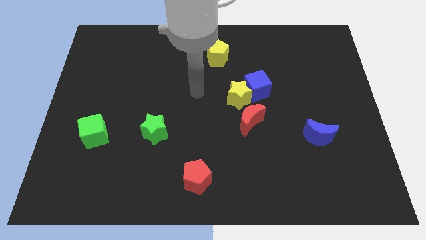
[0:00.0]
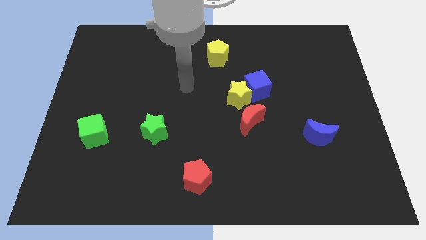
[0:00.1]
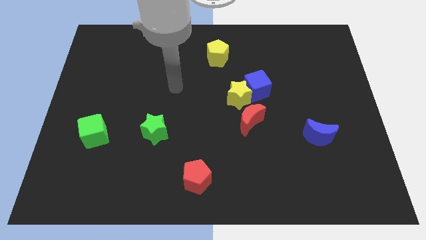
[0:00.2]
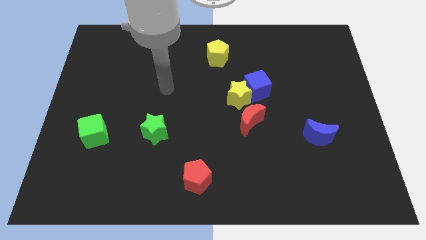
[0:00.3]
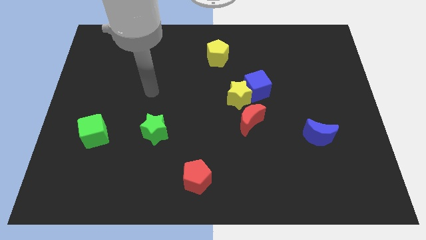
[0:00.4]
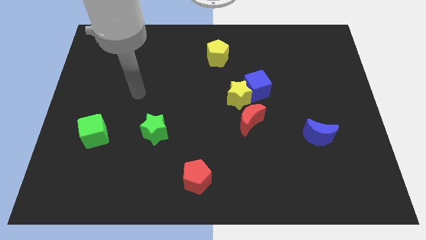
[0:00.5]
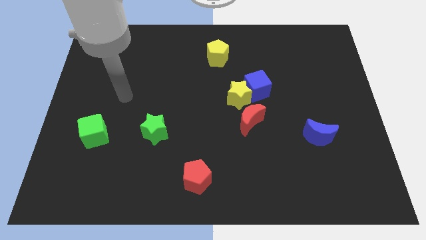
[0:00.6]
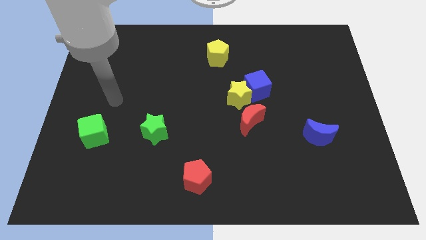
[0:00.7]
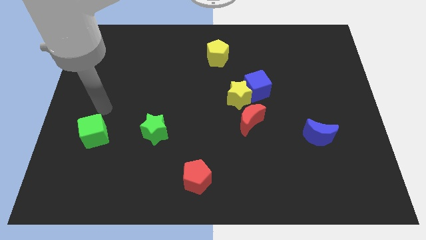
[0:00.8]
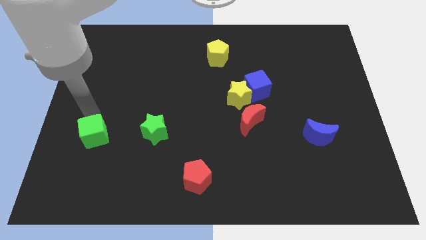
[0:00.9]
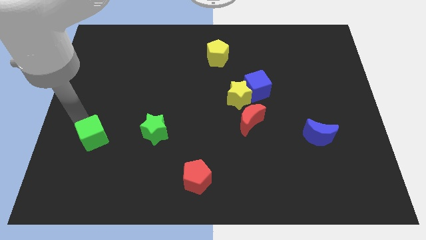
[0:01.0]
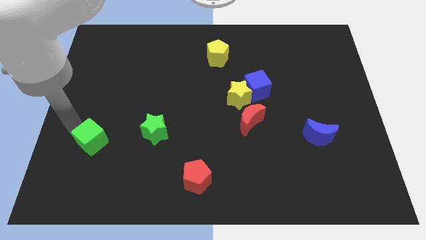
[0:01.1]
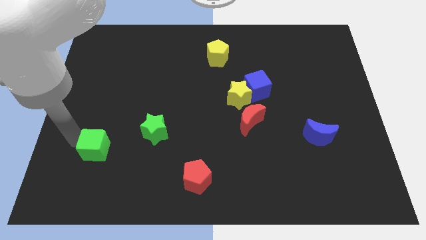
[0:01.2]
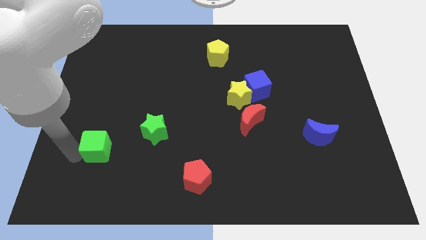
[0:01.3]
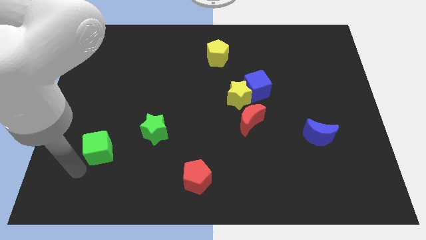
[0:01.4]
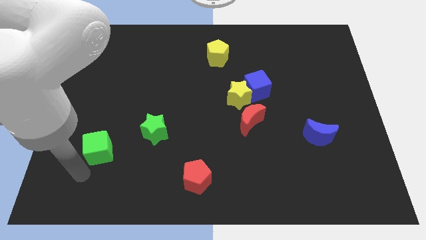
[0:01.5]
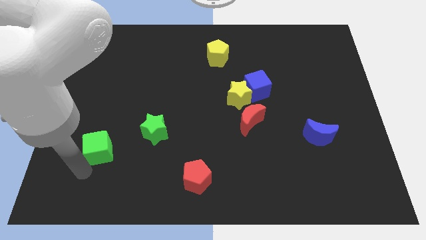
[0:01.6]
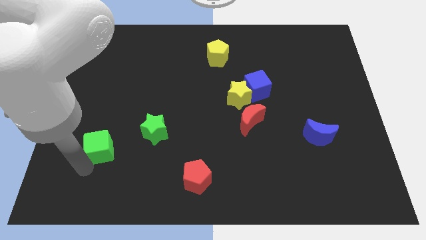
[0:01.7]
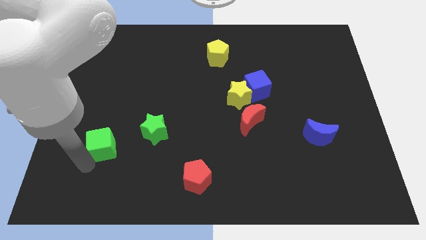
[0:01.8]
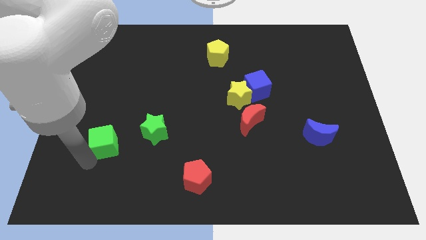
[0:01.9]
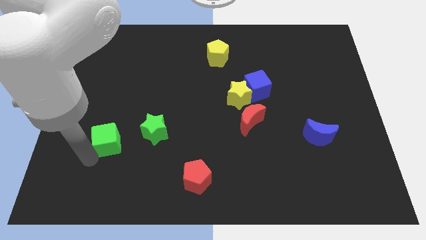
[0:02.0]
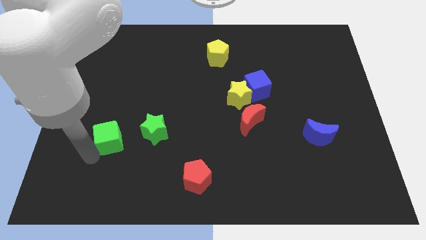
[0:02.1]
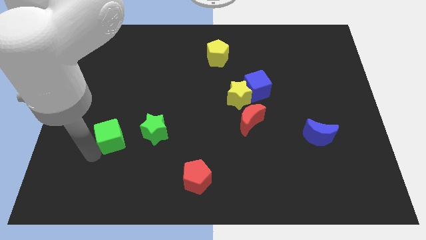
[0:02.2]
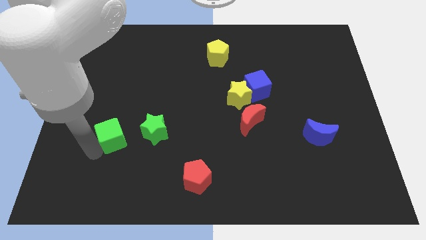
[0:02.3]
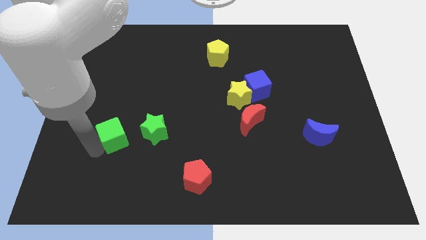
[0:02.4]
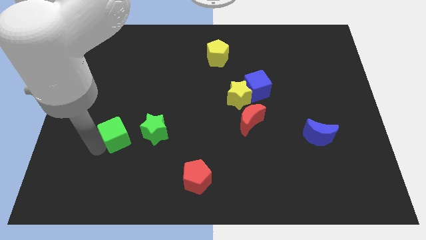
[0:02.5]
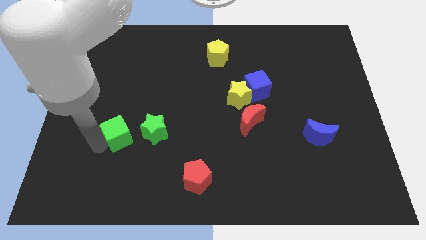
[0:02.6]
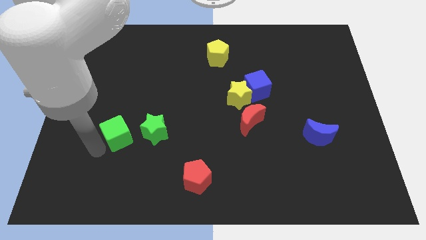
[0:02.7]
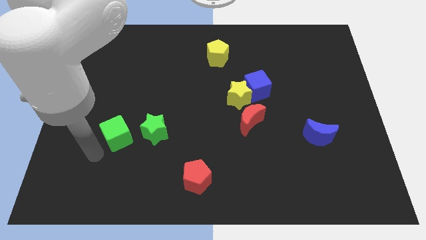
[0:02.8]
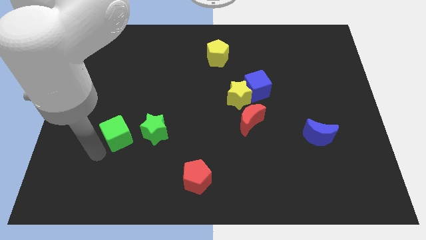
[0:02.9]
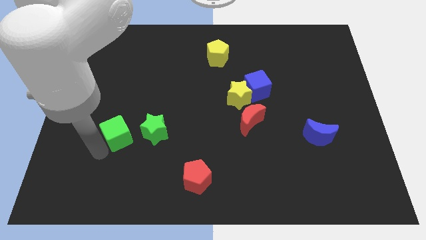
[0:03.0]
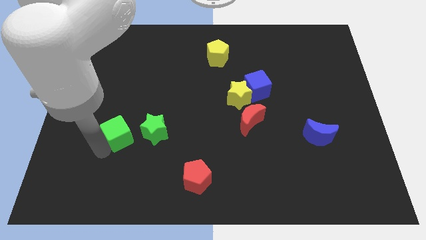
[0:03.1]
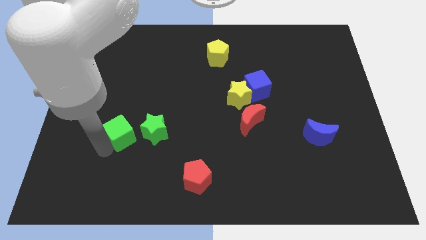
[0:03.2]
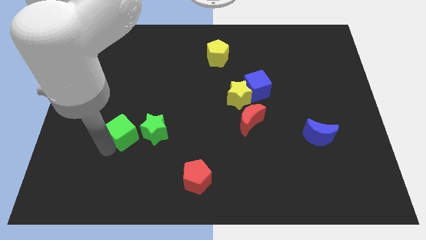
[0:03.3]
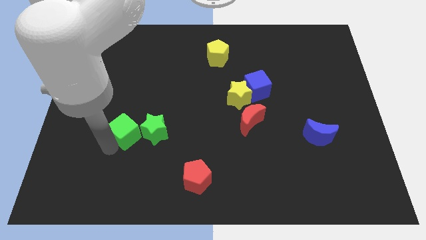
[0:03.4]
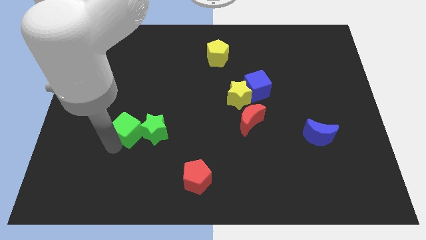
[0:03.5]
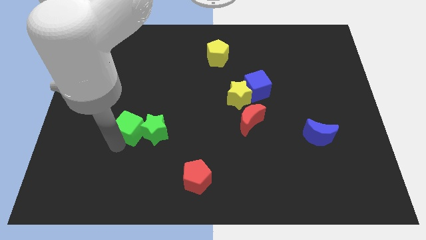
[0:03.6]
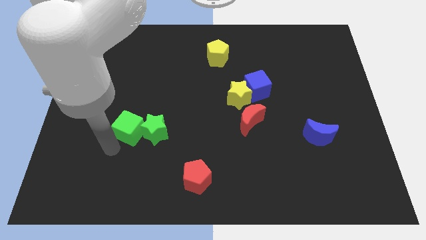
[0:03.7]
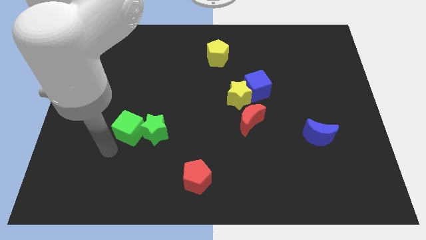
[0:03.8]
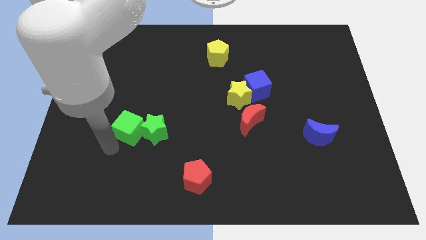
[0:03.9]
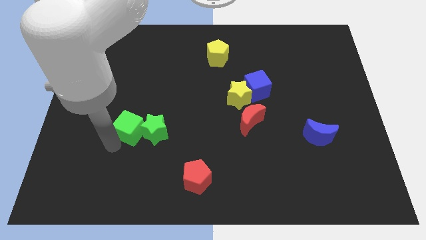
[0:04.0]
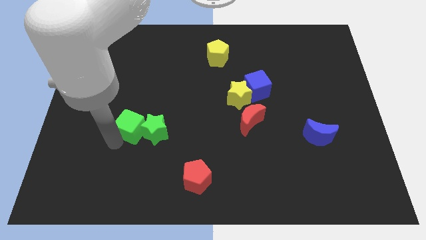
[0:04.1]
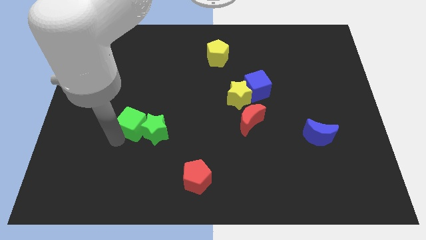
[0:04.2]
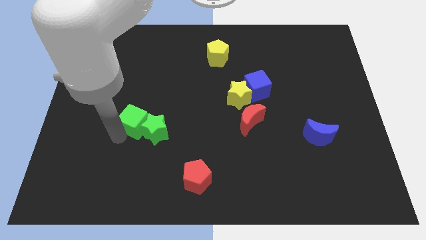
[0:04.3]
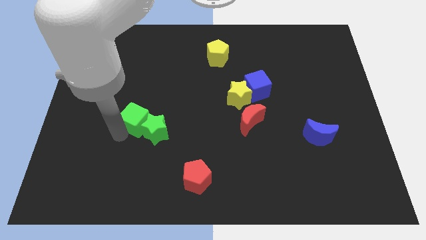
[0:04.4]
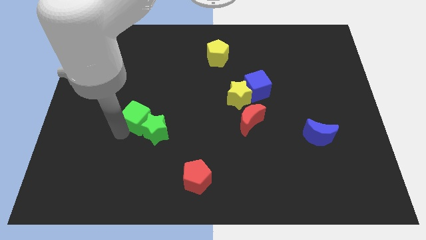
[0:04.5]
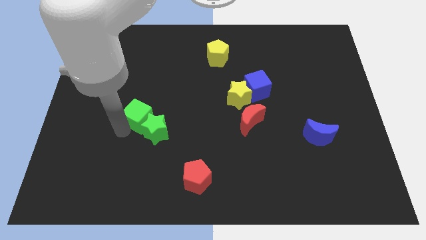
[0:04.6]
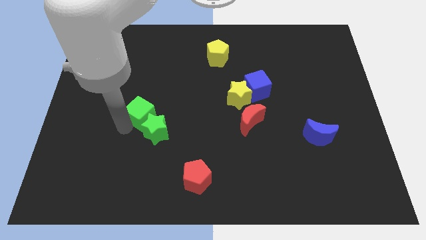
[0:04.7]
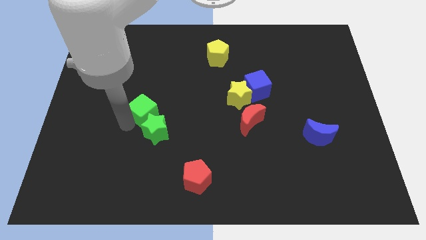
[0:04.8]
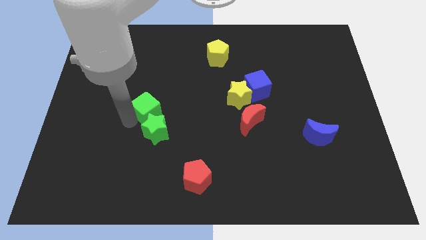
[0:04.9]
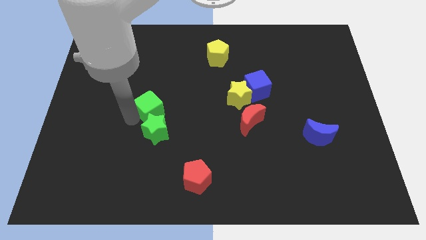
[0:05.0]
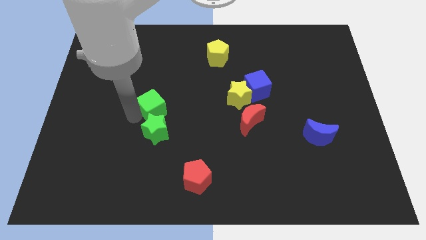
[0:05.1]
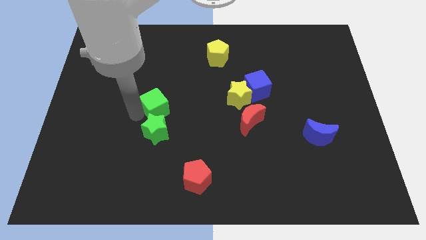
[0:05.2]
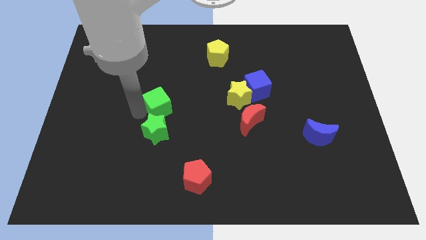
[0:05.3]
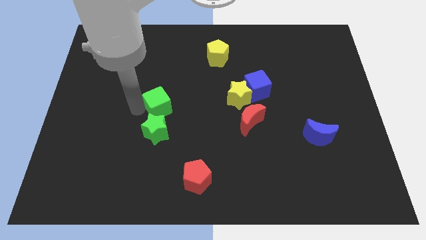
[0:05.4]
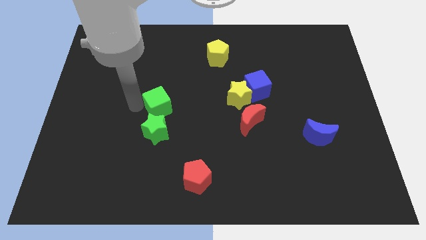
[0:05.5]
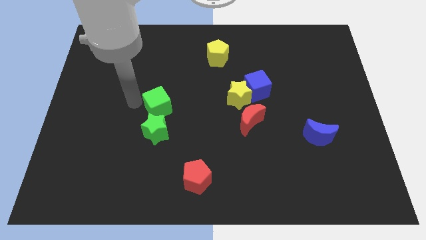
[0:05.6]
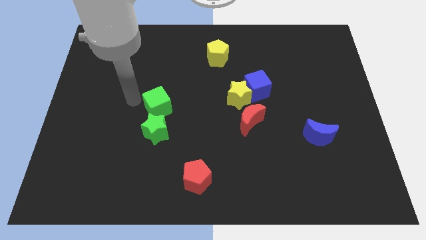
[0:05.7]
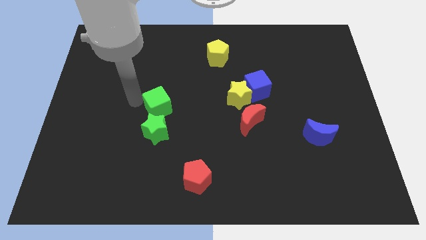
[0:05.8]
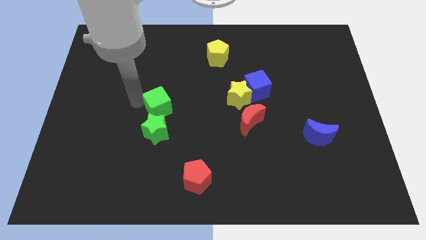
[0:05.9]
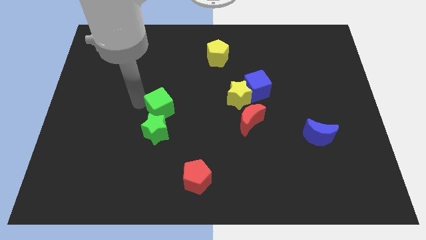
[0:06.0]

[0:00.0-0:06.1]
push the green cube to the middle of the board
